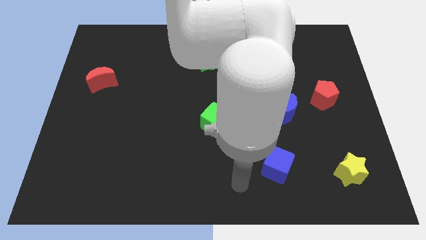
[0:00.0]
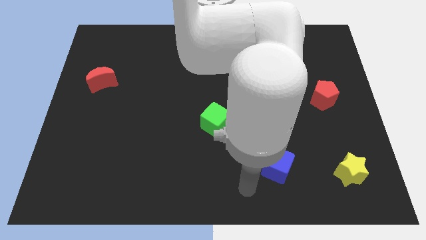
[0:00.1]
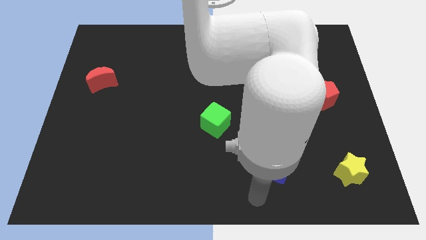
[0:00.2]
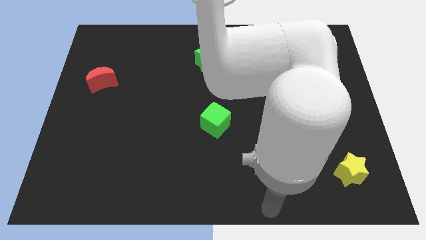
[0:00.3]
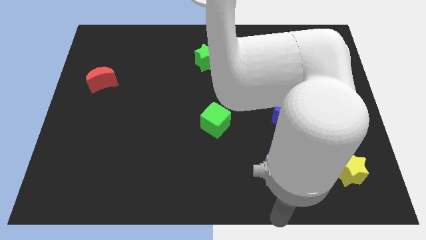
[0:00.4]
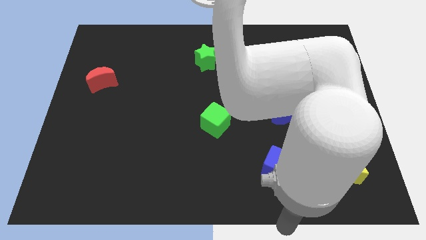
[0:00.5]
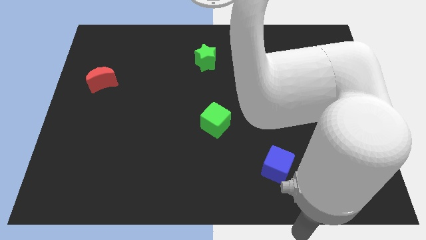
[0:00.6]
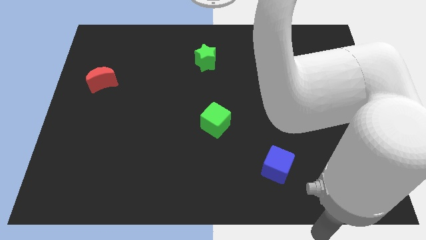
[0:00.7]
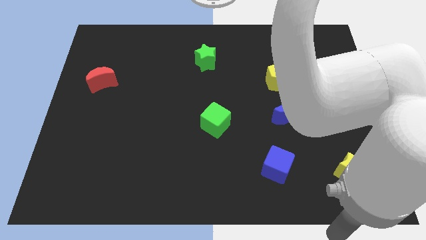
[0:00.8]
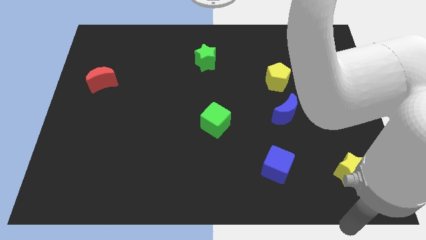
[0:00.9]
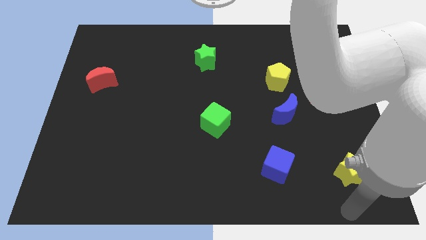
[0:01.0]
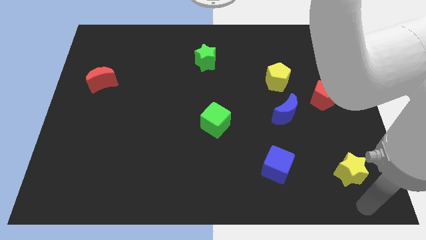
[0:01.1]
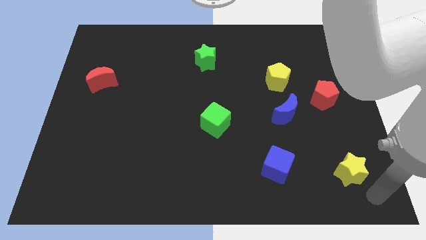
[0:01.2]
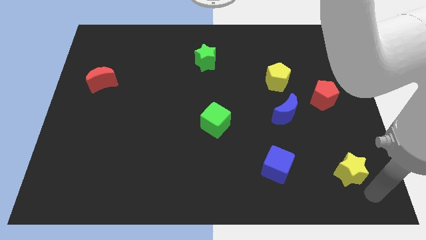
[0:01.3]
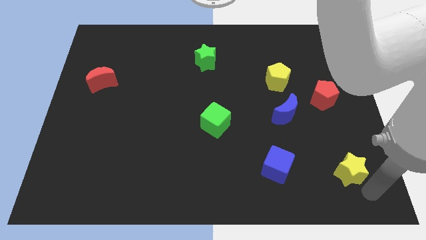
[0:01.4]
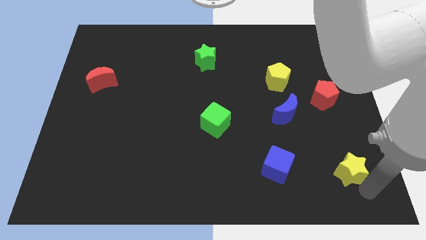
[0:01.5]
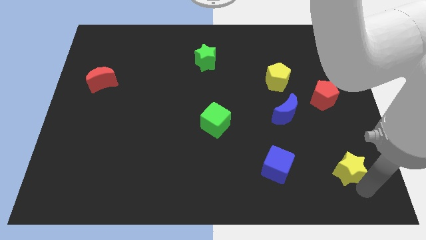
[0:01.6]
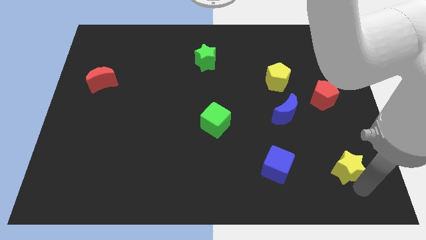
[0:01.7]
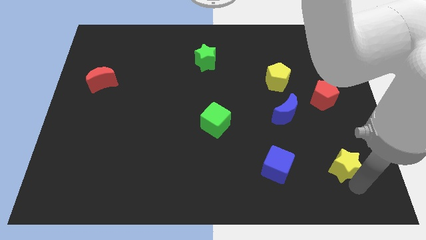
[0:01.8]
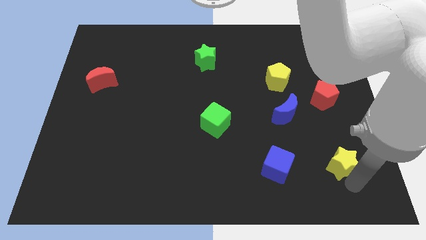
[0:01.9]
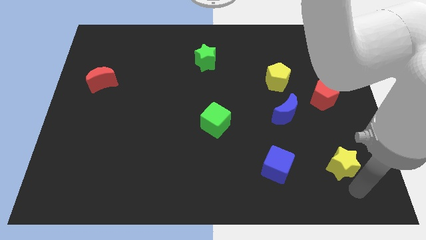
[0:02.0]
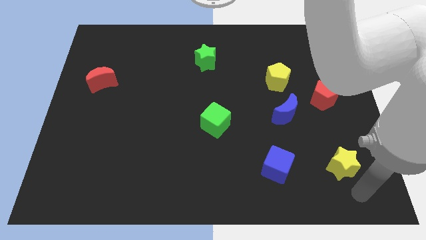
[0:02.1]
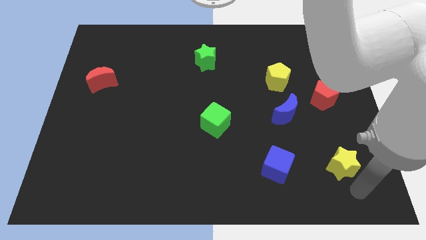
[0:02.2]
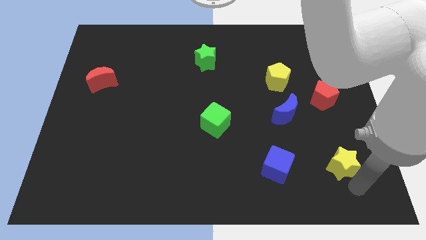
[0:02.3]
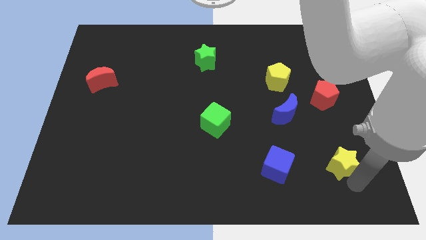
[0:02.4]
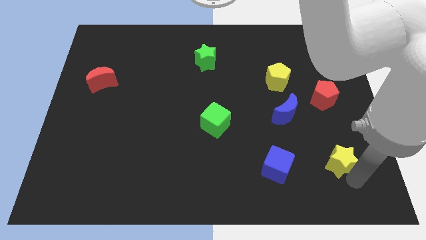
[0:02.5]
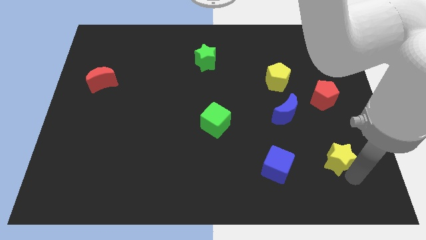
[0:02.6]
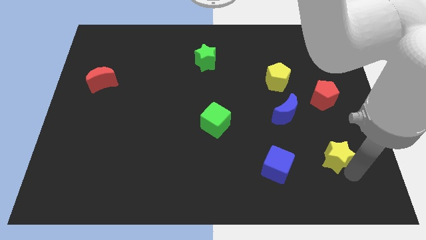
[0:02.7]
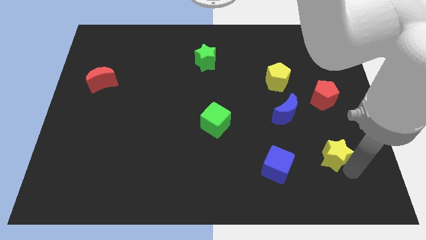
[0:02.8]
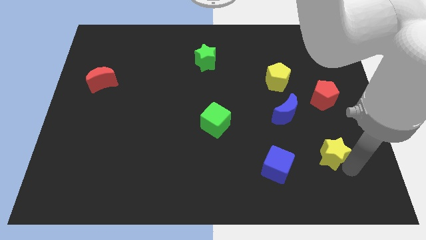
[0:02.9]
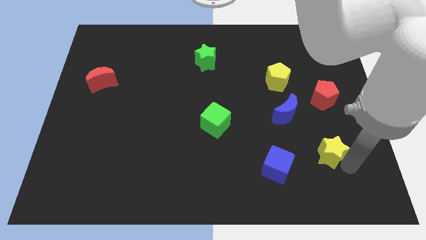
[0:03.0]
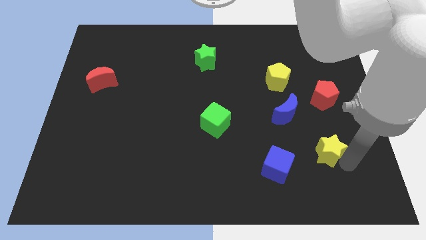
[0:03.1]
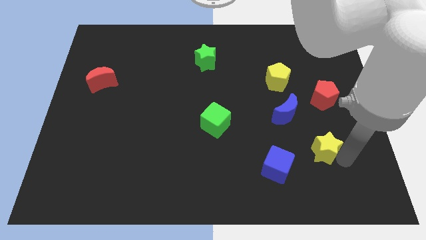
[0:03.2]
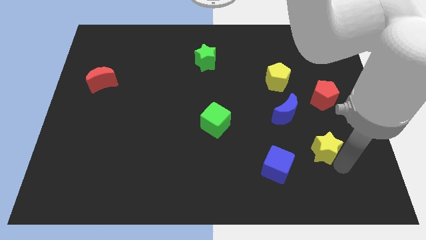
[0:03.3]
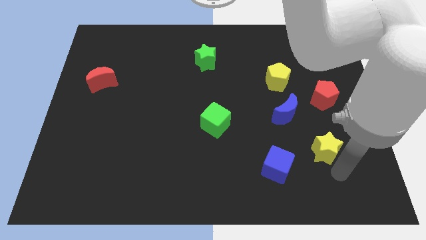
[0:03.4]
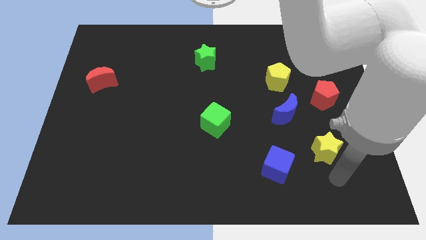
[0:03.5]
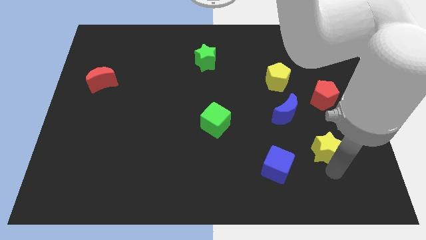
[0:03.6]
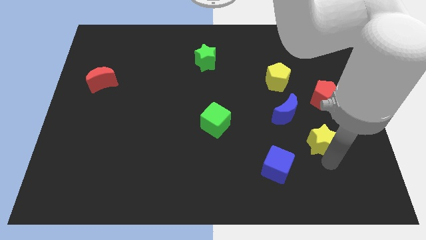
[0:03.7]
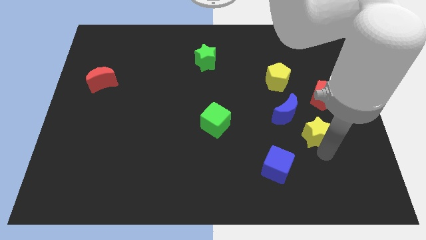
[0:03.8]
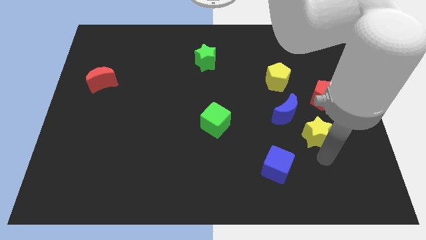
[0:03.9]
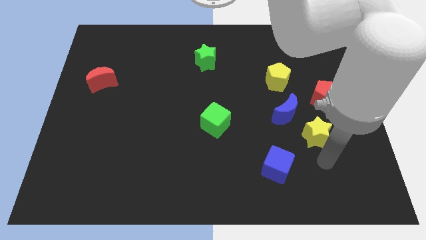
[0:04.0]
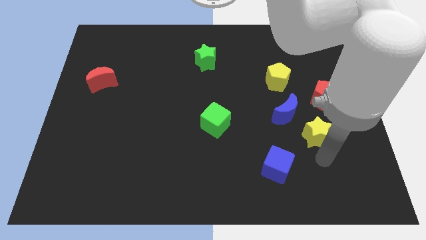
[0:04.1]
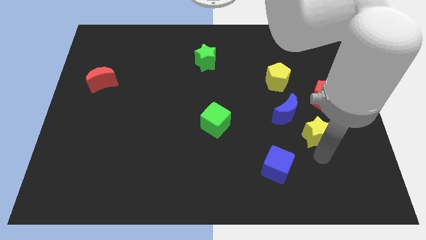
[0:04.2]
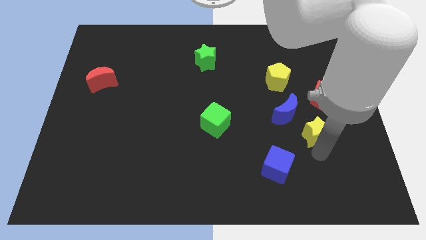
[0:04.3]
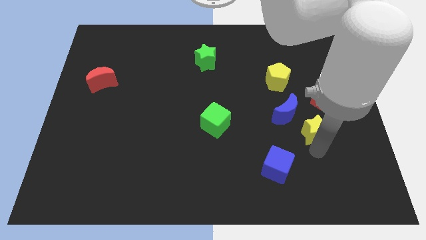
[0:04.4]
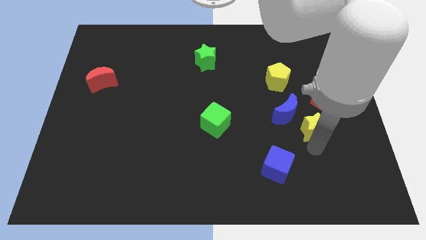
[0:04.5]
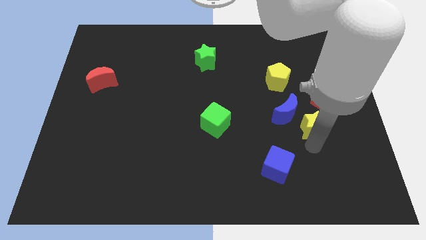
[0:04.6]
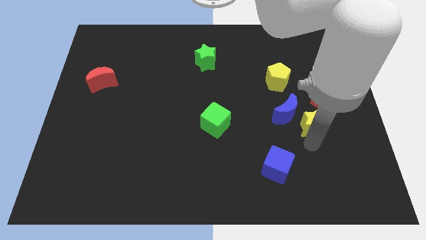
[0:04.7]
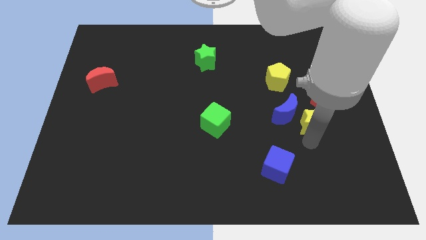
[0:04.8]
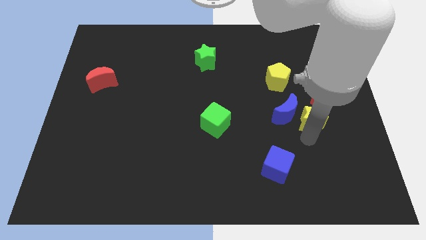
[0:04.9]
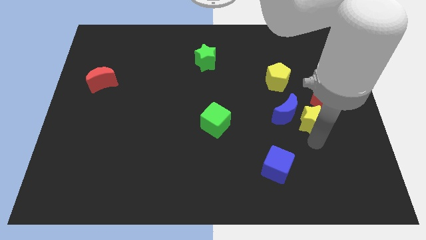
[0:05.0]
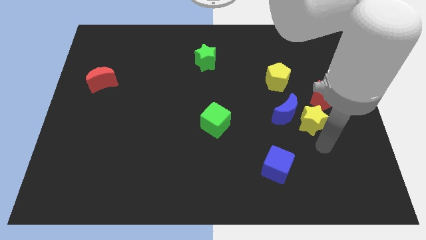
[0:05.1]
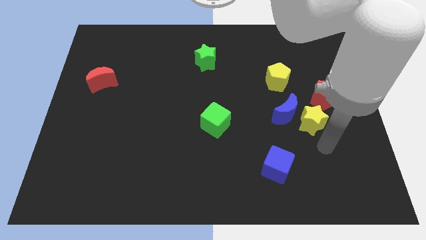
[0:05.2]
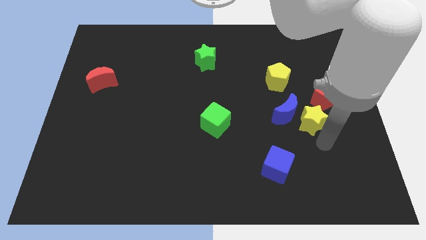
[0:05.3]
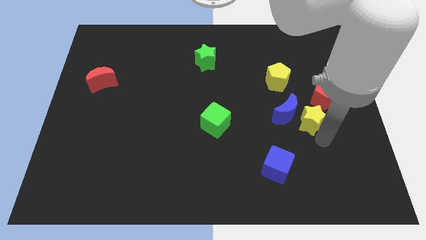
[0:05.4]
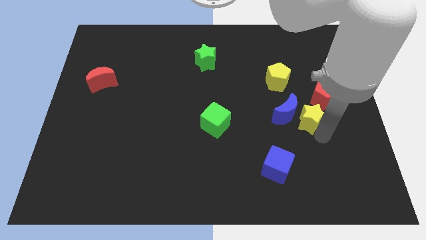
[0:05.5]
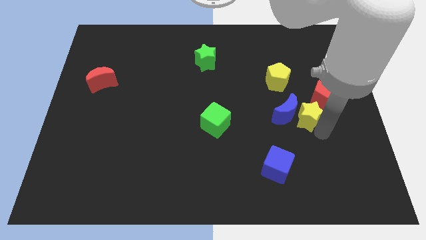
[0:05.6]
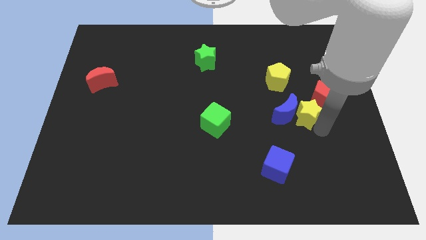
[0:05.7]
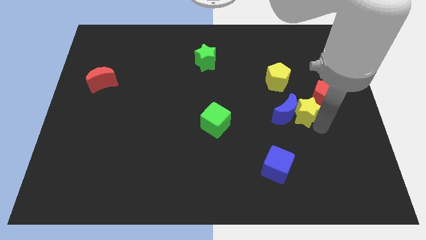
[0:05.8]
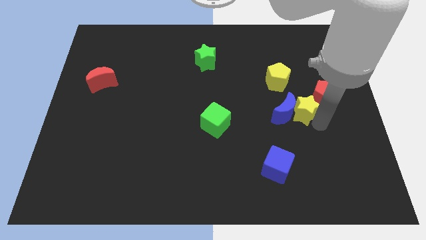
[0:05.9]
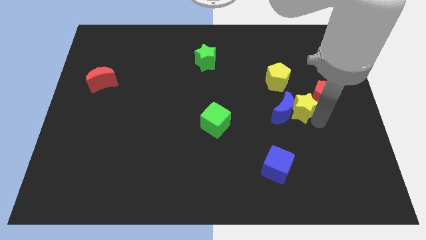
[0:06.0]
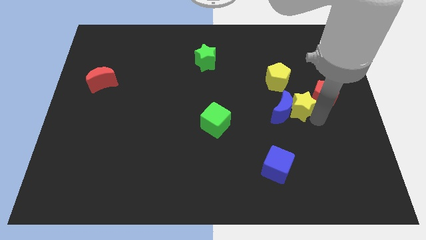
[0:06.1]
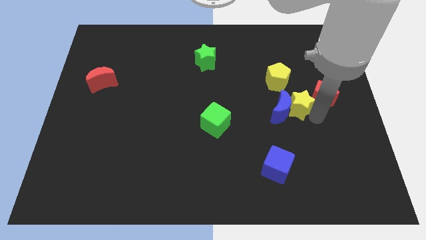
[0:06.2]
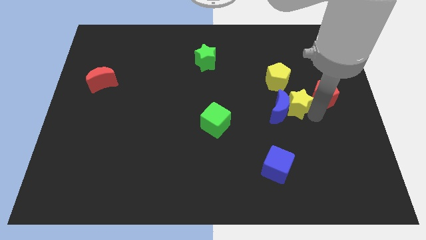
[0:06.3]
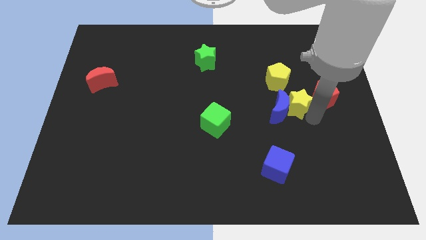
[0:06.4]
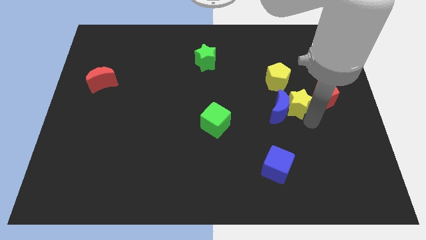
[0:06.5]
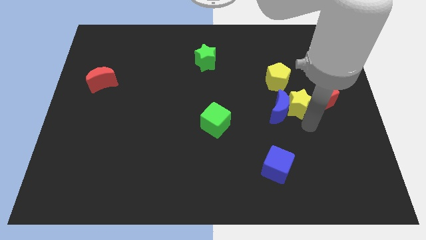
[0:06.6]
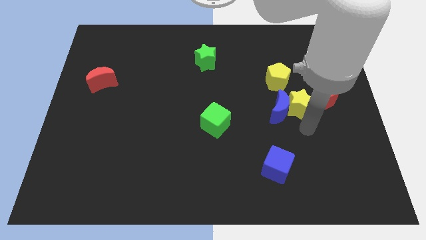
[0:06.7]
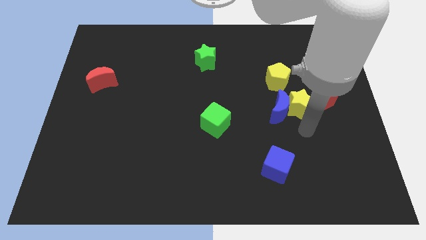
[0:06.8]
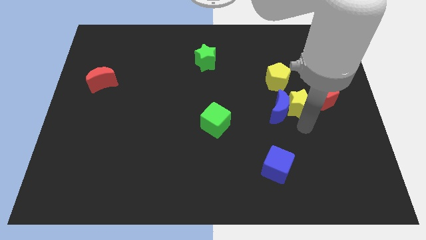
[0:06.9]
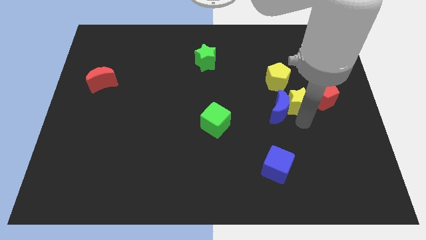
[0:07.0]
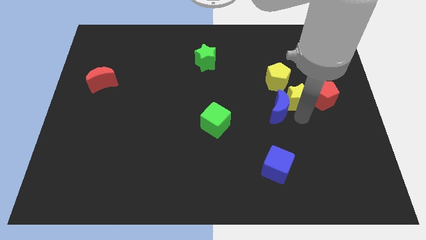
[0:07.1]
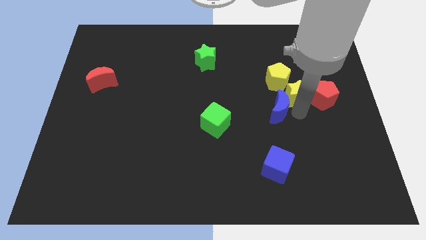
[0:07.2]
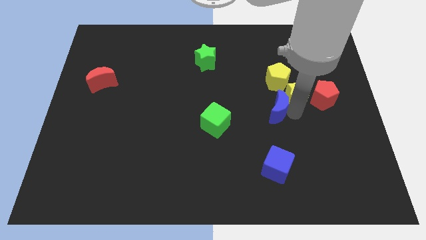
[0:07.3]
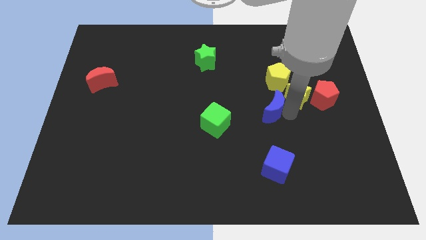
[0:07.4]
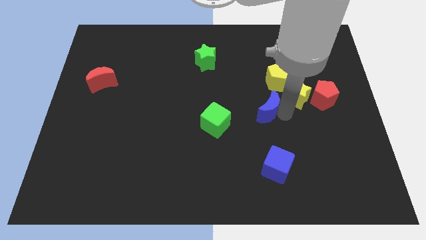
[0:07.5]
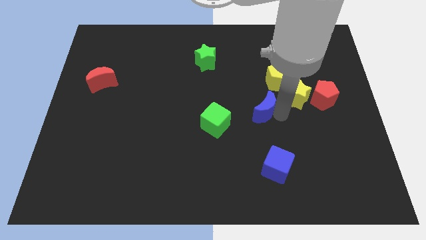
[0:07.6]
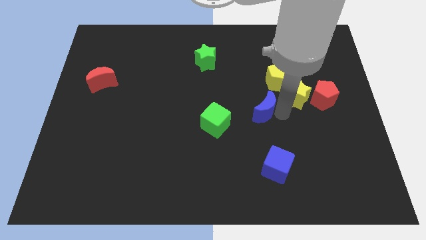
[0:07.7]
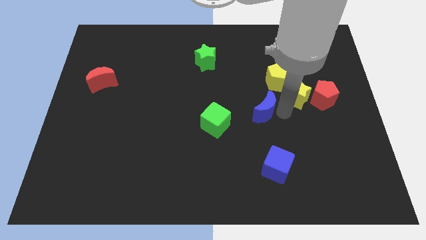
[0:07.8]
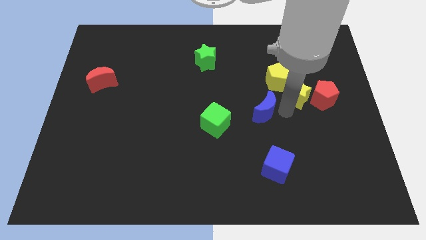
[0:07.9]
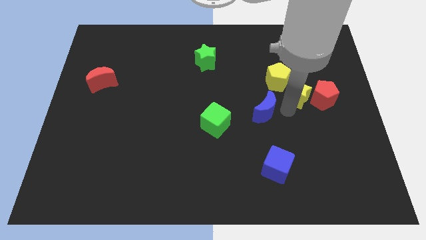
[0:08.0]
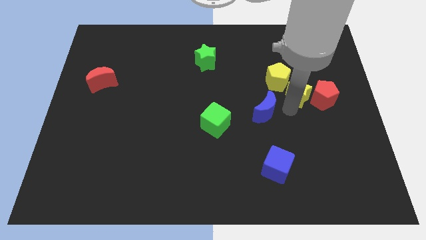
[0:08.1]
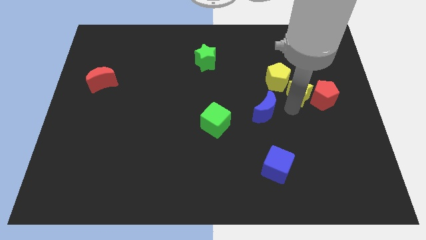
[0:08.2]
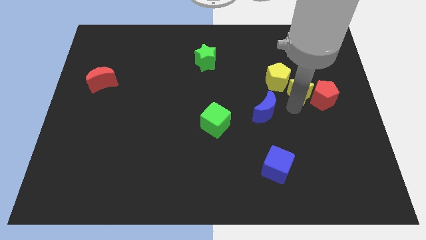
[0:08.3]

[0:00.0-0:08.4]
slide the yellow star just right of the yellow pentagon
